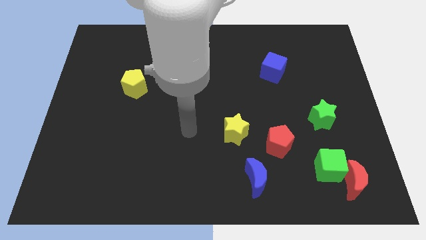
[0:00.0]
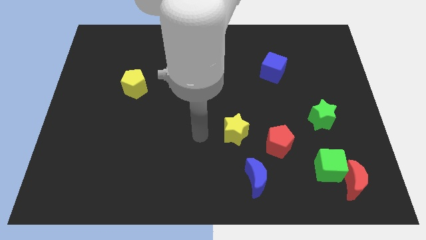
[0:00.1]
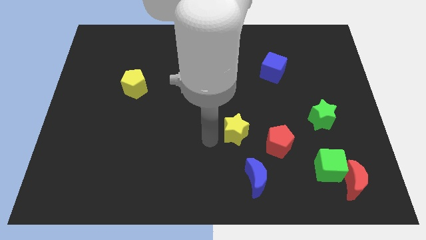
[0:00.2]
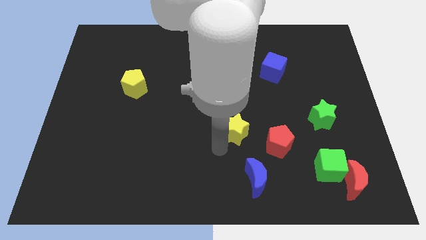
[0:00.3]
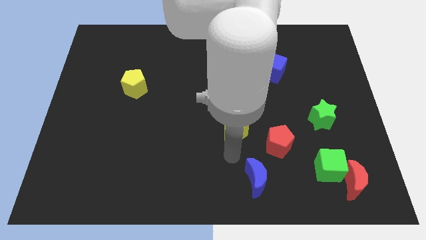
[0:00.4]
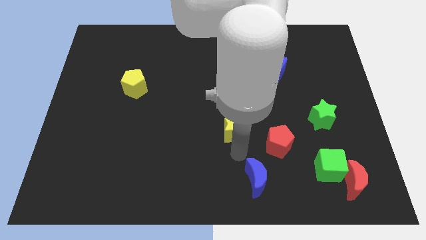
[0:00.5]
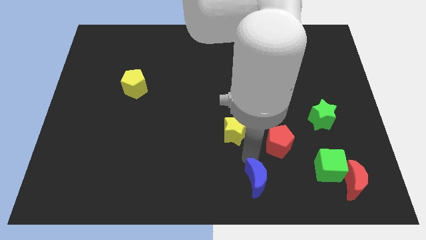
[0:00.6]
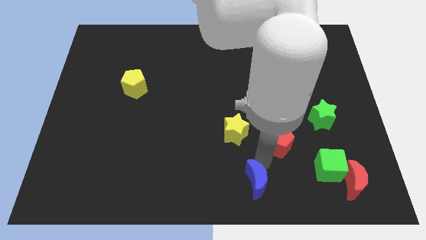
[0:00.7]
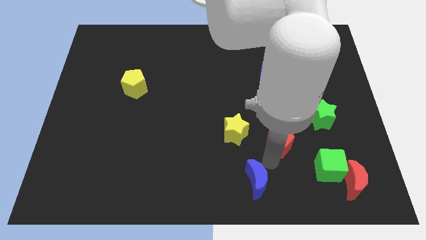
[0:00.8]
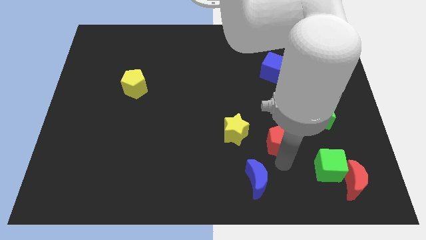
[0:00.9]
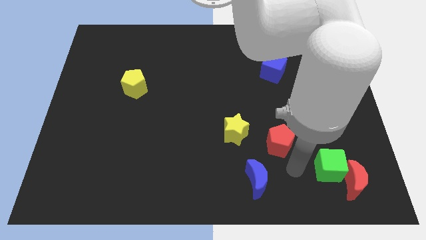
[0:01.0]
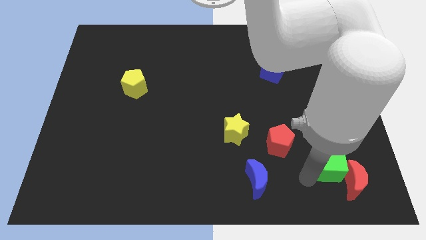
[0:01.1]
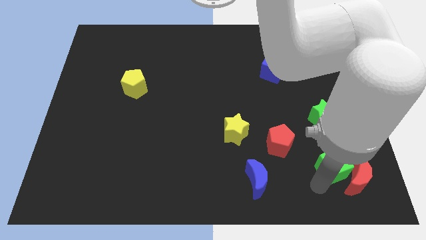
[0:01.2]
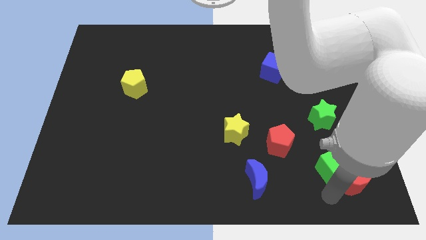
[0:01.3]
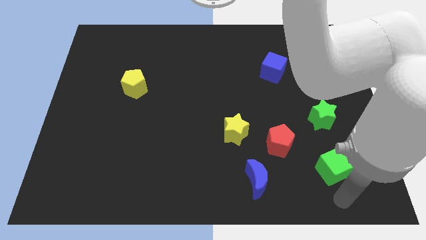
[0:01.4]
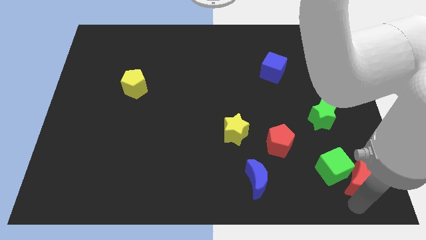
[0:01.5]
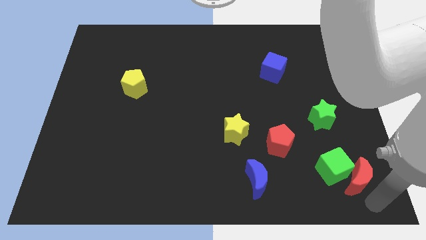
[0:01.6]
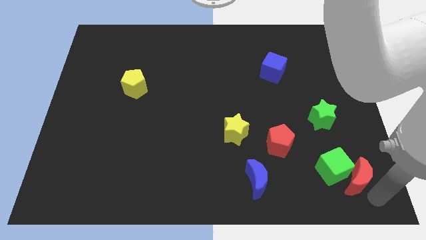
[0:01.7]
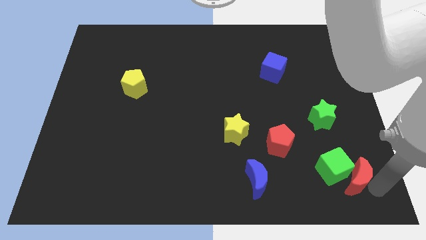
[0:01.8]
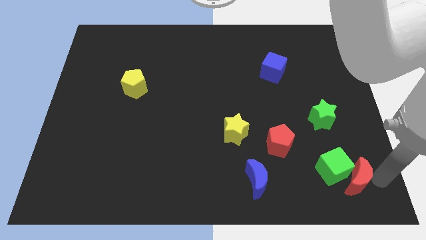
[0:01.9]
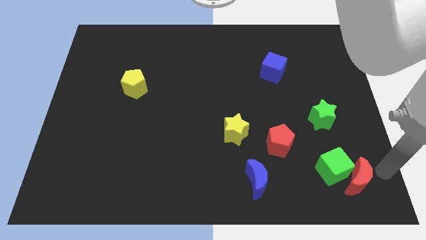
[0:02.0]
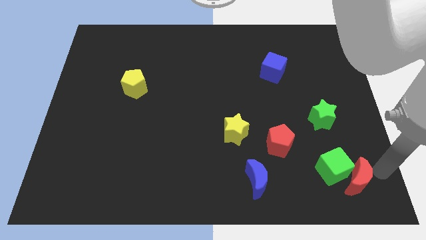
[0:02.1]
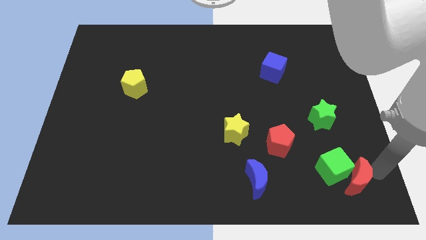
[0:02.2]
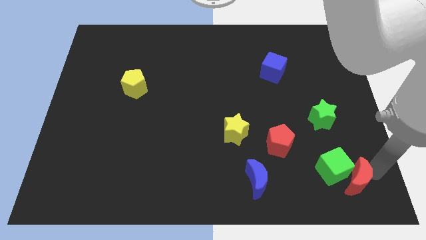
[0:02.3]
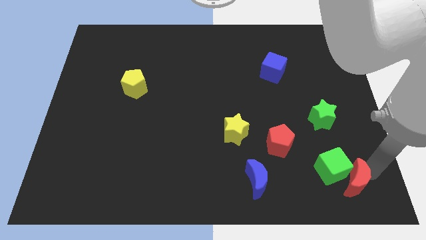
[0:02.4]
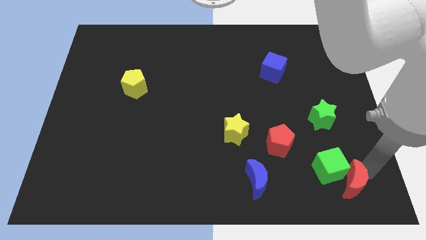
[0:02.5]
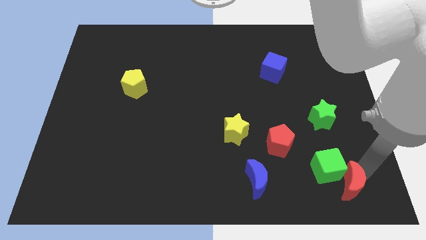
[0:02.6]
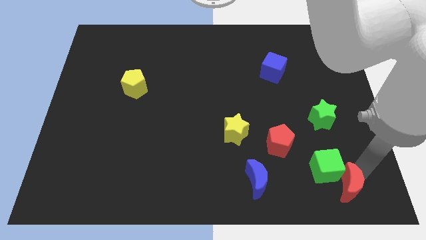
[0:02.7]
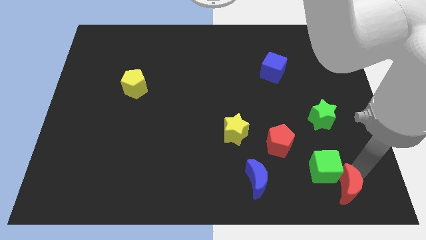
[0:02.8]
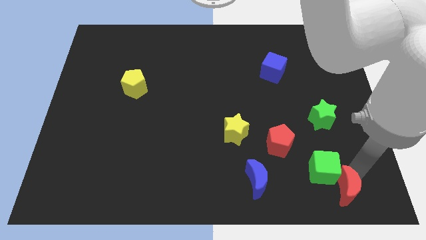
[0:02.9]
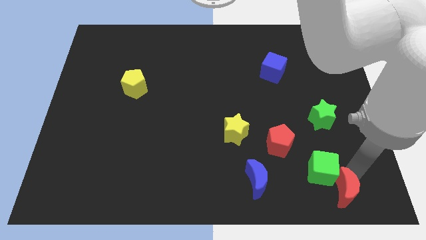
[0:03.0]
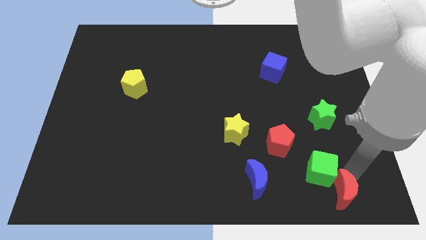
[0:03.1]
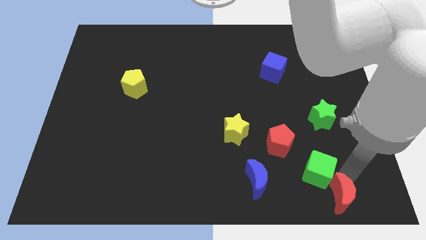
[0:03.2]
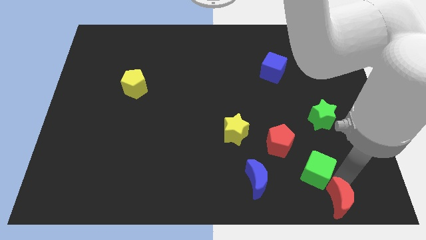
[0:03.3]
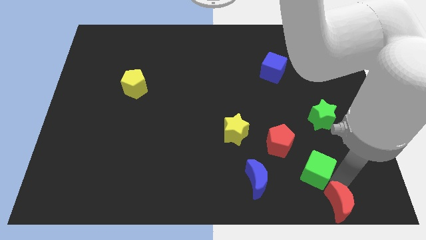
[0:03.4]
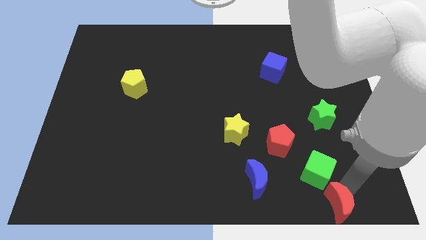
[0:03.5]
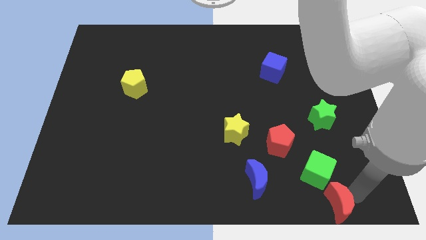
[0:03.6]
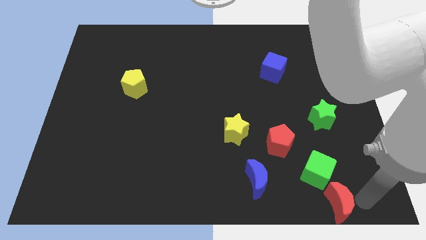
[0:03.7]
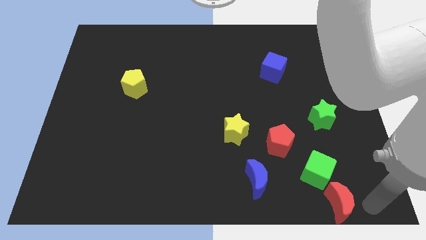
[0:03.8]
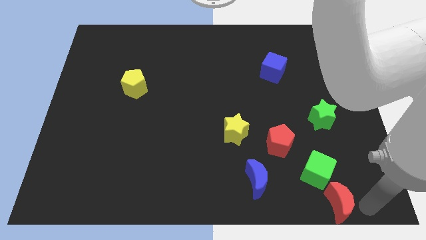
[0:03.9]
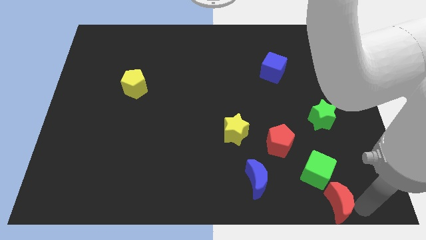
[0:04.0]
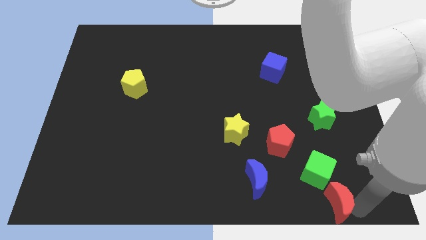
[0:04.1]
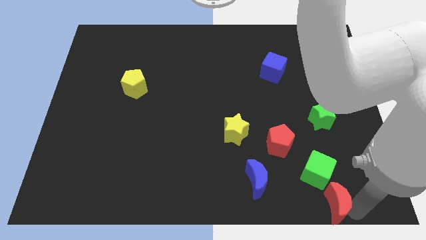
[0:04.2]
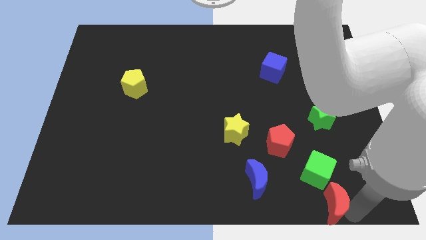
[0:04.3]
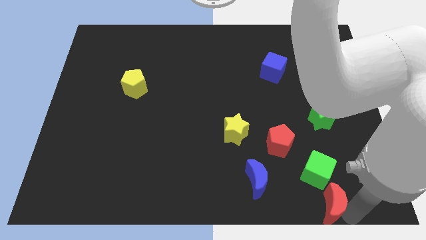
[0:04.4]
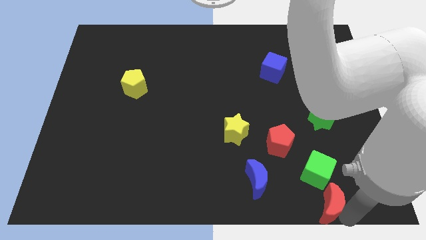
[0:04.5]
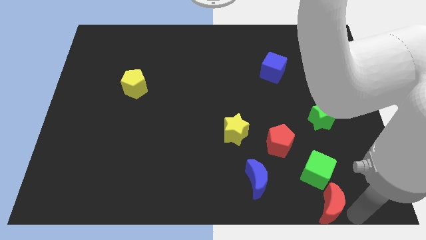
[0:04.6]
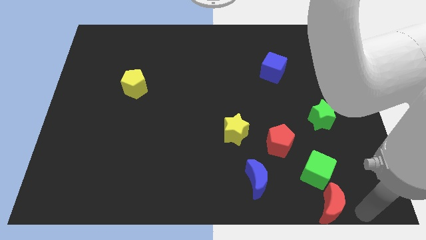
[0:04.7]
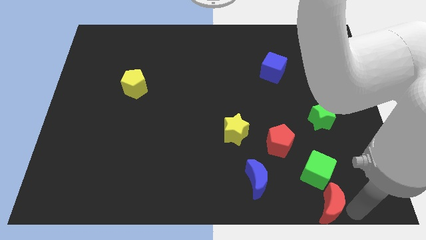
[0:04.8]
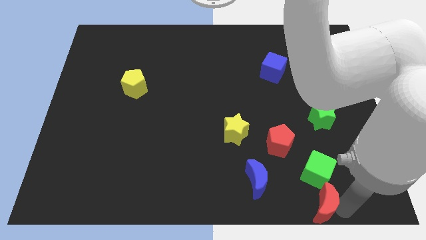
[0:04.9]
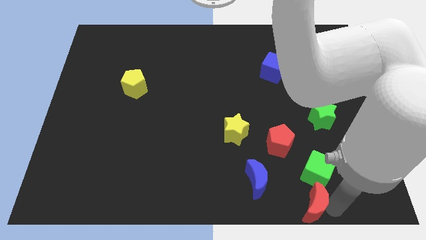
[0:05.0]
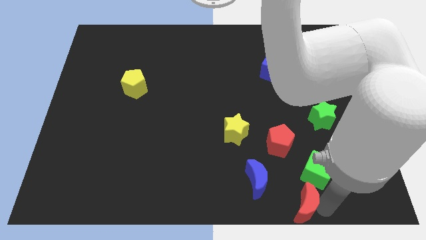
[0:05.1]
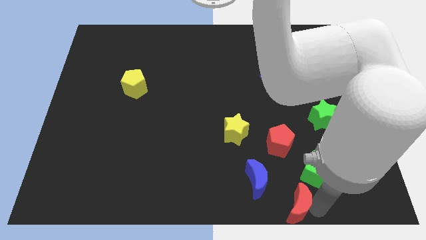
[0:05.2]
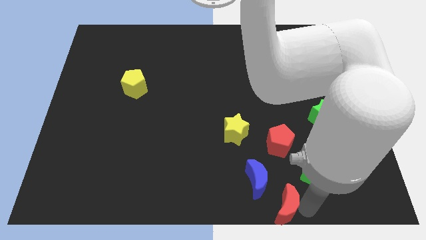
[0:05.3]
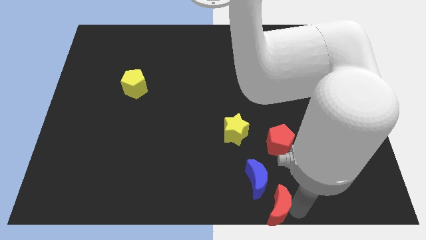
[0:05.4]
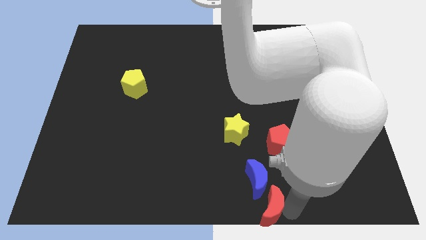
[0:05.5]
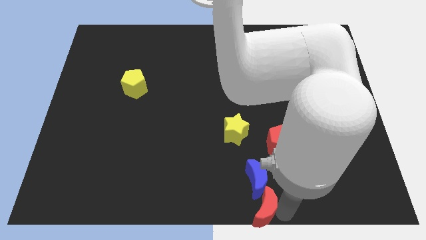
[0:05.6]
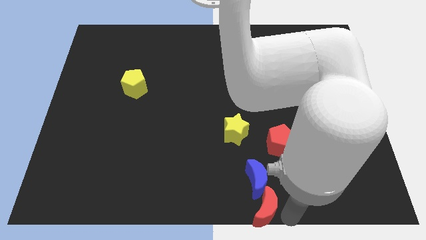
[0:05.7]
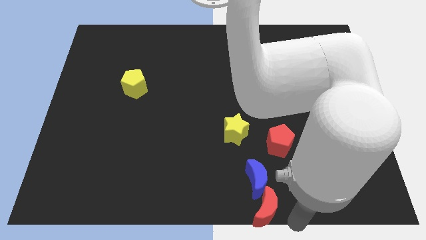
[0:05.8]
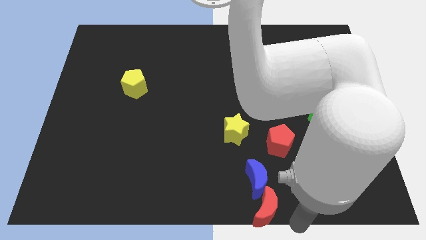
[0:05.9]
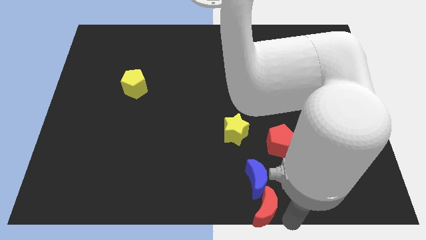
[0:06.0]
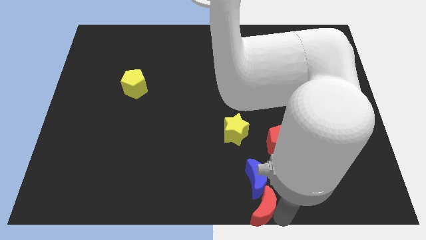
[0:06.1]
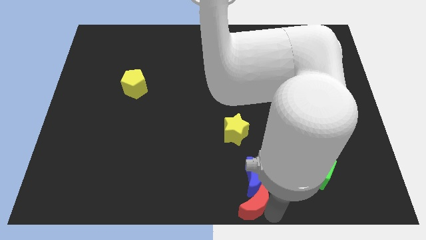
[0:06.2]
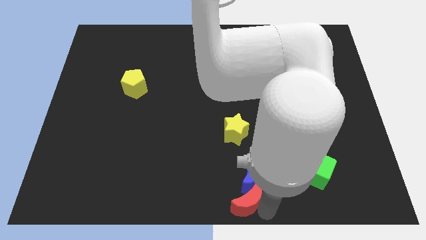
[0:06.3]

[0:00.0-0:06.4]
push the red moon to the left

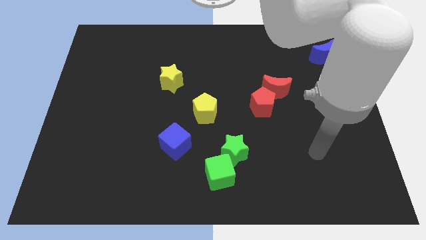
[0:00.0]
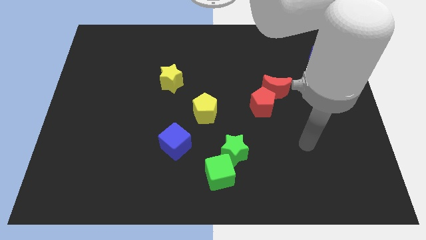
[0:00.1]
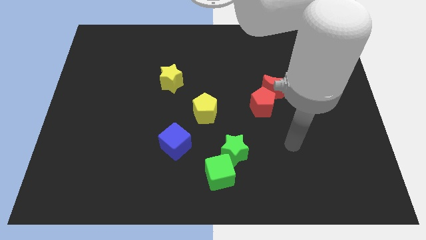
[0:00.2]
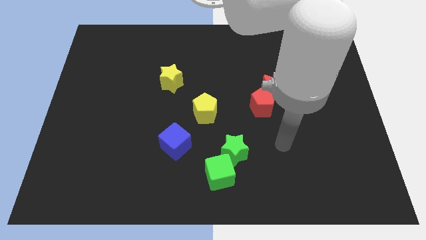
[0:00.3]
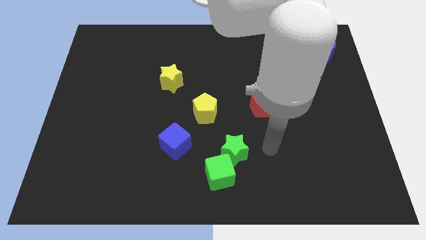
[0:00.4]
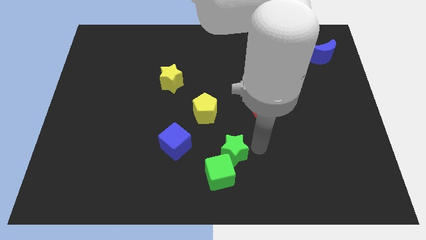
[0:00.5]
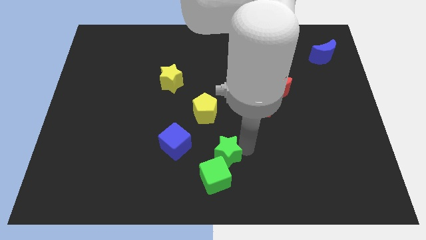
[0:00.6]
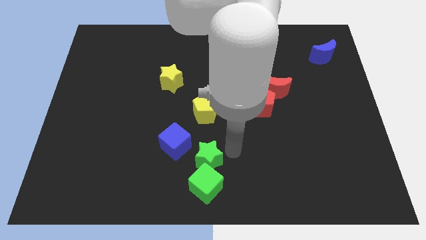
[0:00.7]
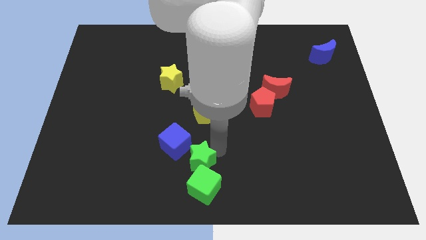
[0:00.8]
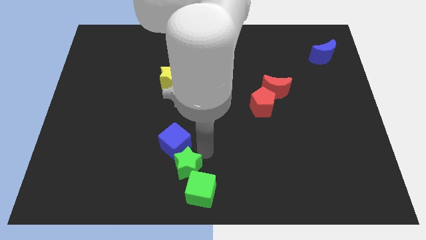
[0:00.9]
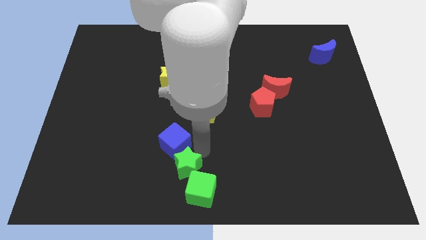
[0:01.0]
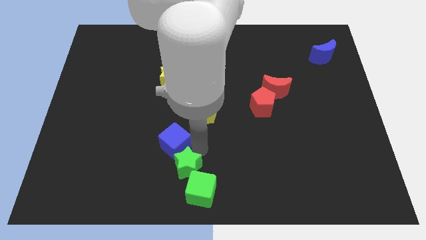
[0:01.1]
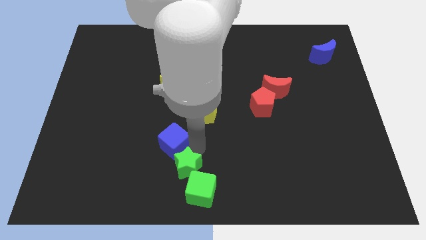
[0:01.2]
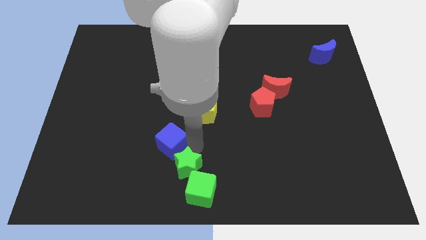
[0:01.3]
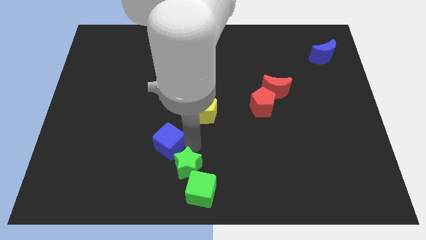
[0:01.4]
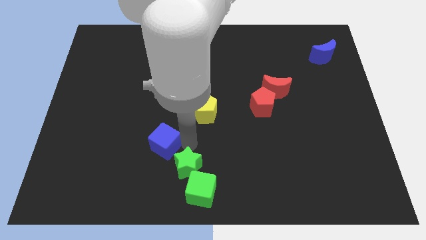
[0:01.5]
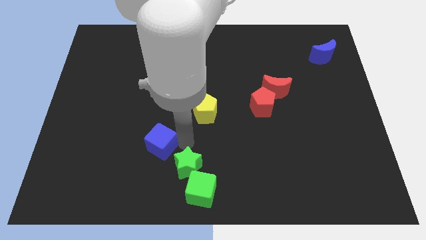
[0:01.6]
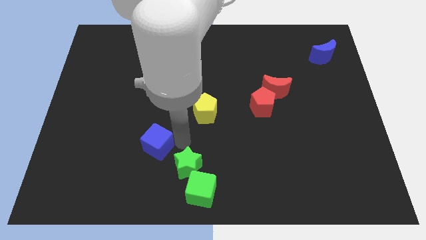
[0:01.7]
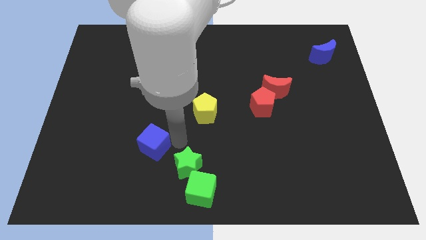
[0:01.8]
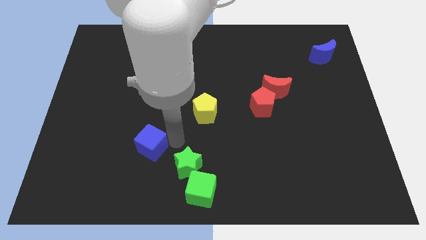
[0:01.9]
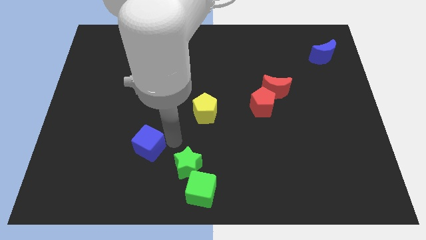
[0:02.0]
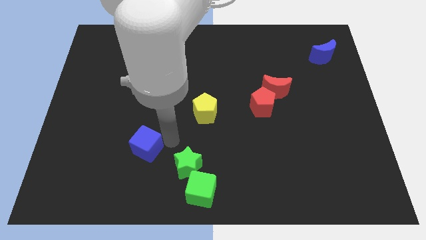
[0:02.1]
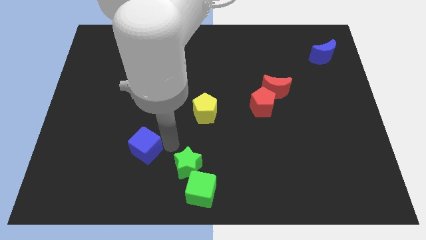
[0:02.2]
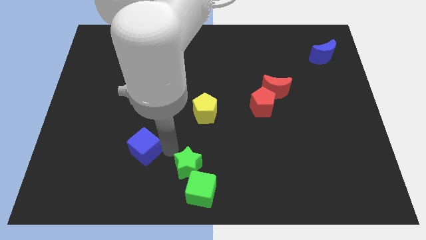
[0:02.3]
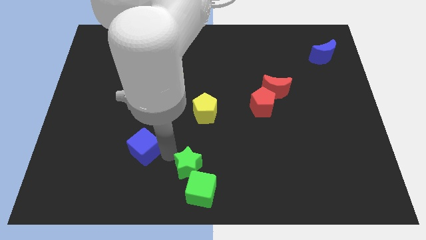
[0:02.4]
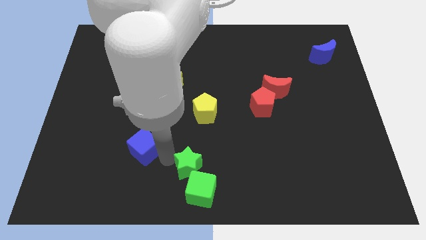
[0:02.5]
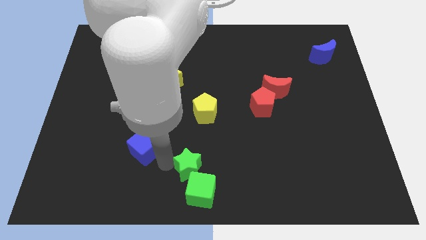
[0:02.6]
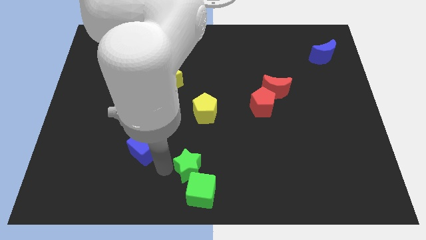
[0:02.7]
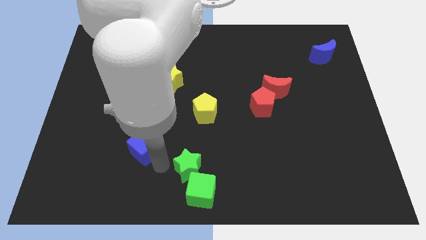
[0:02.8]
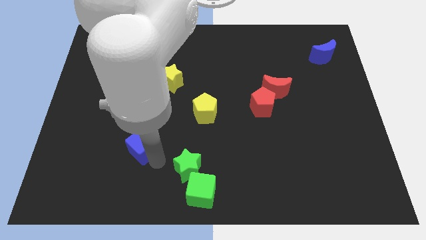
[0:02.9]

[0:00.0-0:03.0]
slide the blue cube a little bit to the left
